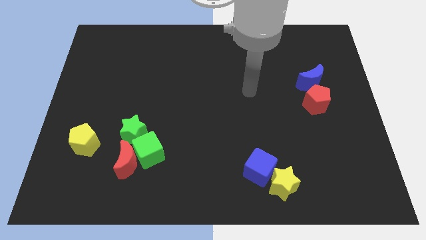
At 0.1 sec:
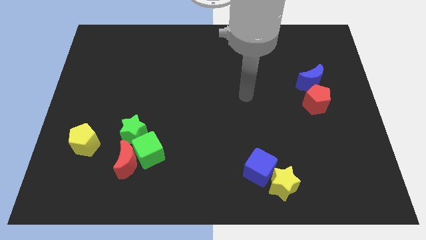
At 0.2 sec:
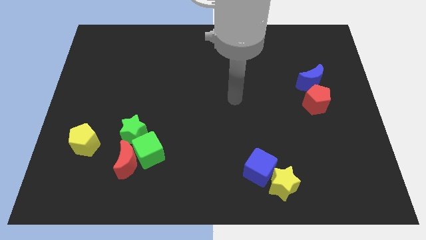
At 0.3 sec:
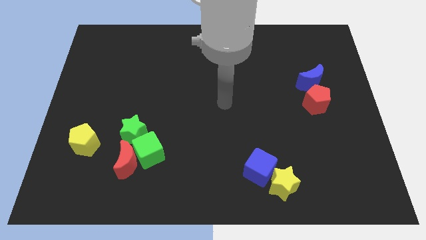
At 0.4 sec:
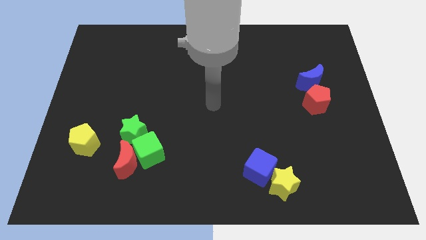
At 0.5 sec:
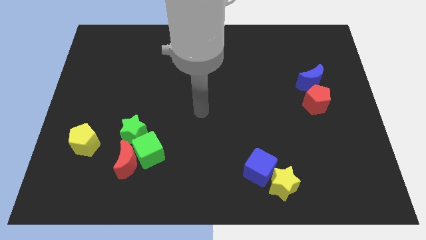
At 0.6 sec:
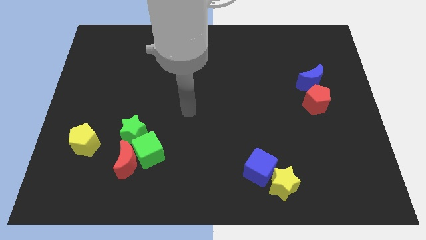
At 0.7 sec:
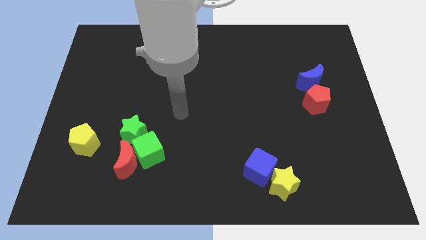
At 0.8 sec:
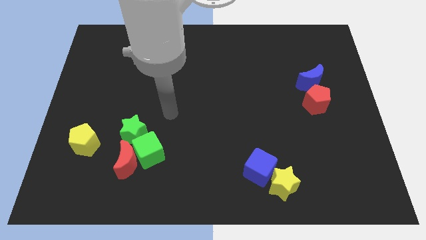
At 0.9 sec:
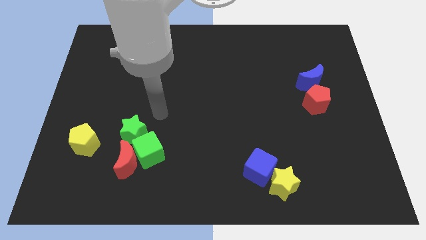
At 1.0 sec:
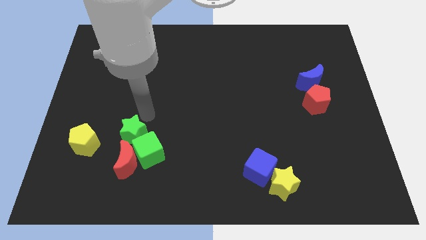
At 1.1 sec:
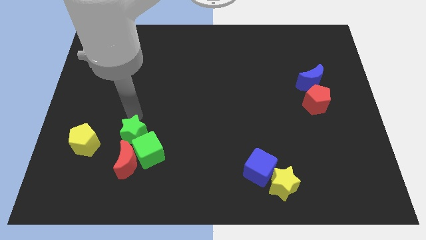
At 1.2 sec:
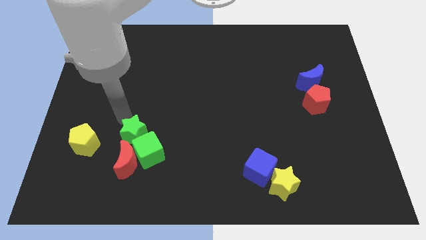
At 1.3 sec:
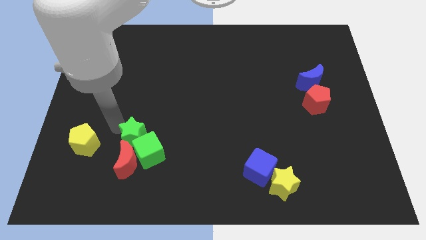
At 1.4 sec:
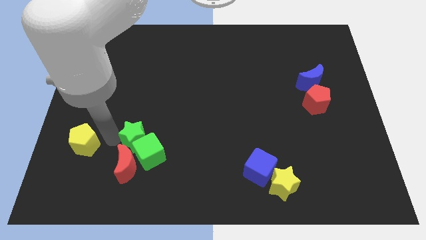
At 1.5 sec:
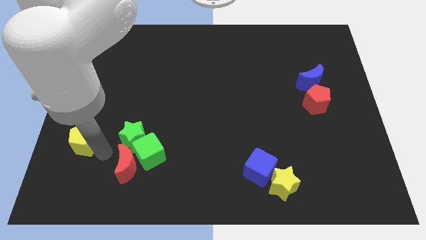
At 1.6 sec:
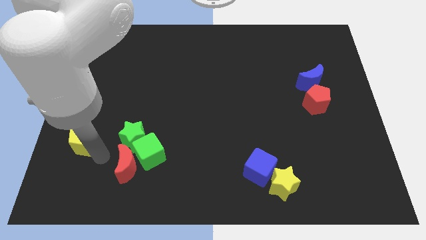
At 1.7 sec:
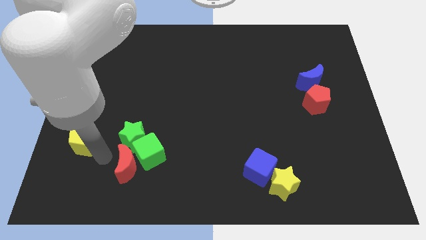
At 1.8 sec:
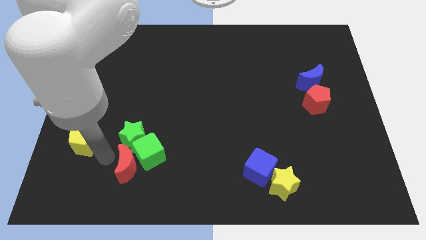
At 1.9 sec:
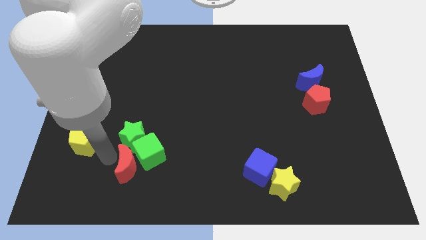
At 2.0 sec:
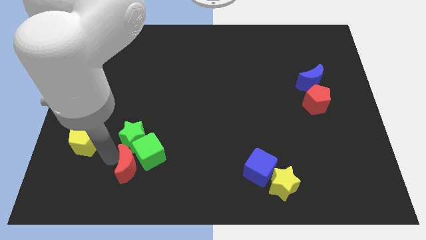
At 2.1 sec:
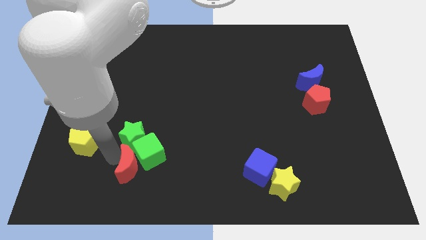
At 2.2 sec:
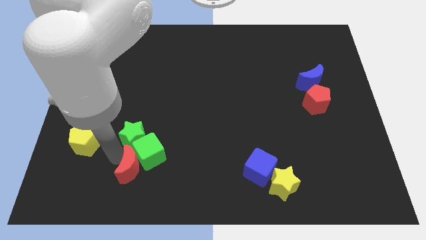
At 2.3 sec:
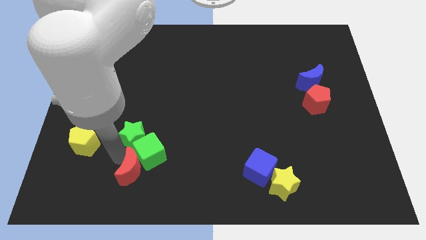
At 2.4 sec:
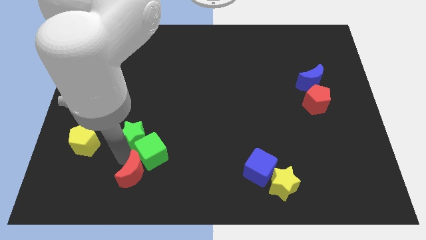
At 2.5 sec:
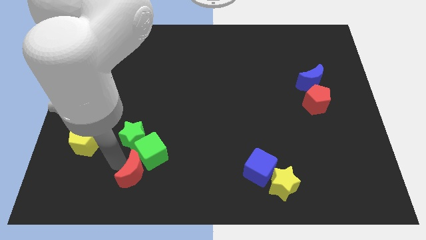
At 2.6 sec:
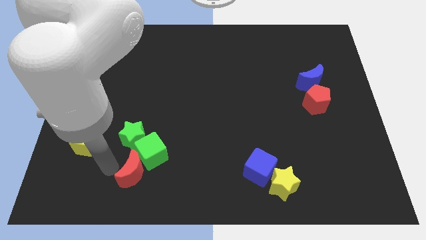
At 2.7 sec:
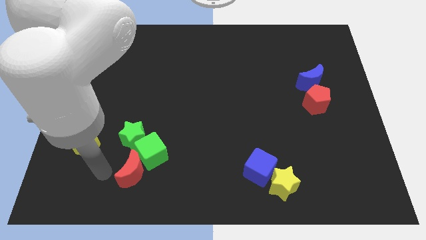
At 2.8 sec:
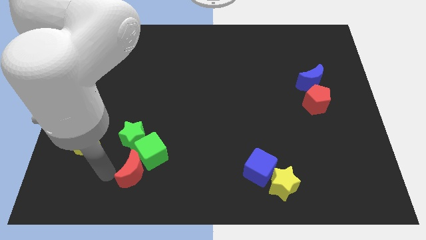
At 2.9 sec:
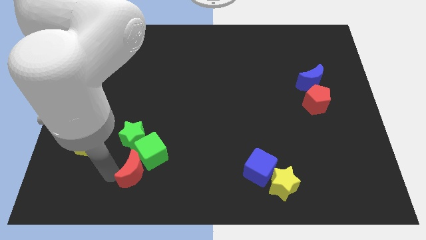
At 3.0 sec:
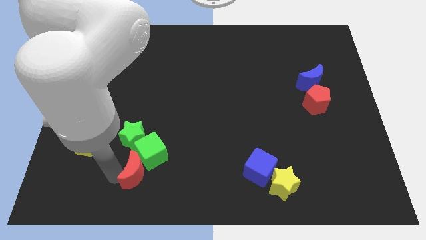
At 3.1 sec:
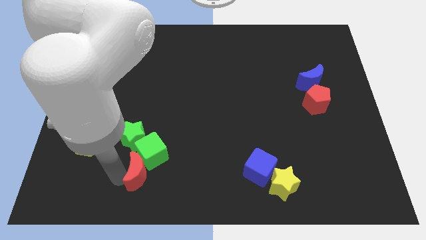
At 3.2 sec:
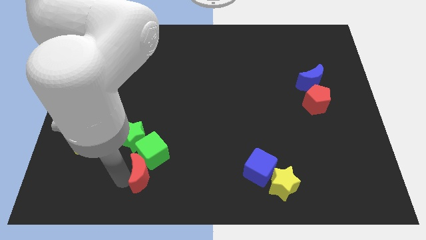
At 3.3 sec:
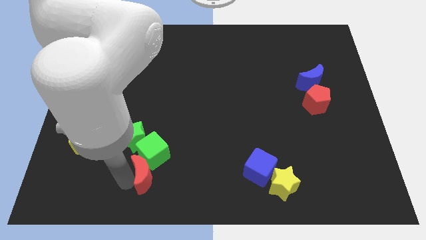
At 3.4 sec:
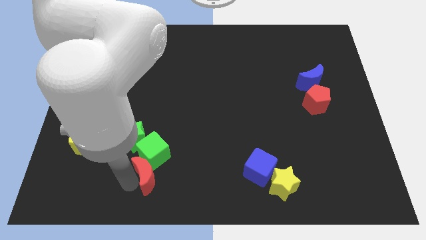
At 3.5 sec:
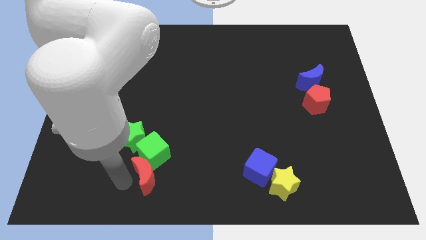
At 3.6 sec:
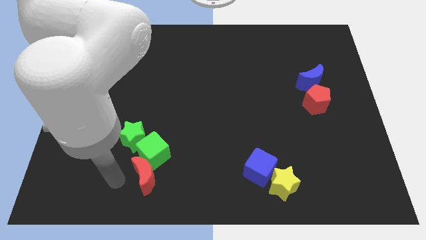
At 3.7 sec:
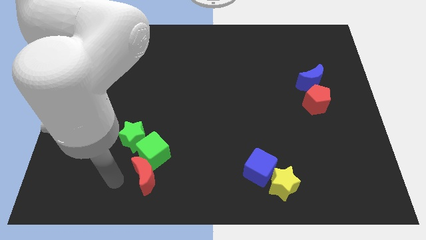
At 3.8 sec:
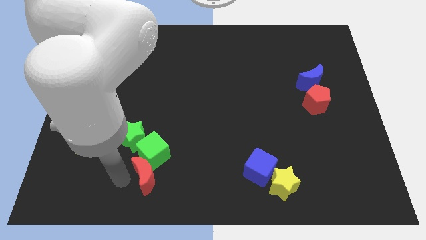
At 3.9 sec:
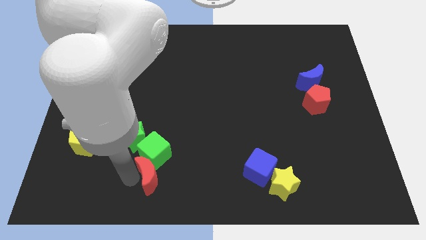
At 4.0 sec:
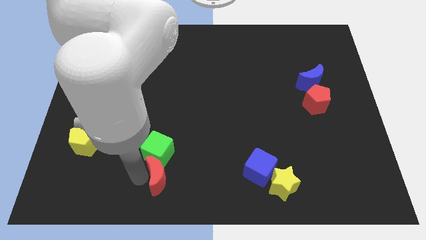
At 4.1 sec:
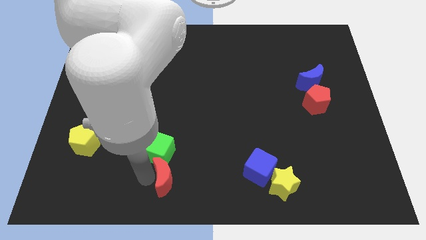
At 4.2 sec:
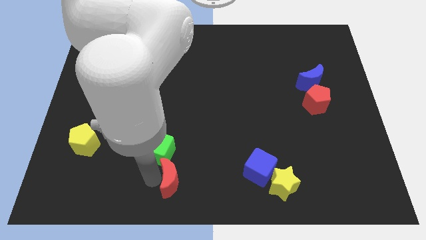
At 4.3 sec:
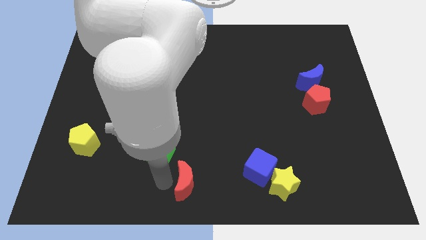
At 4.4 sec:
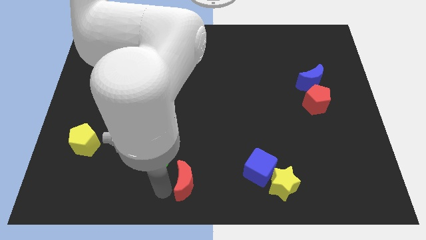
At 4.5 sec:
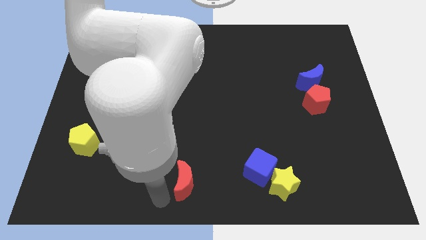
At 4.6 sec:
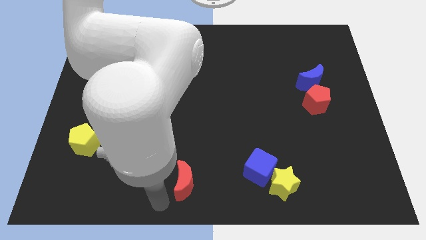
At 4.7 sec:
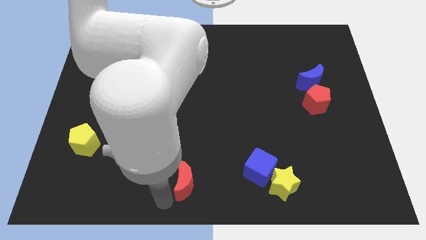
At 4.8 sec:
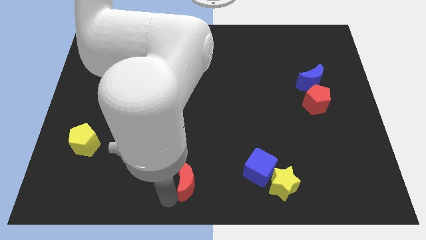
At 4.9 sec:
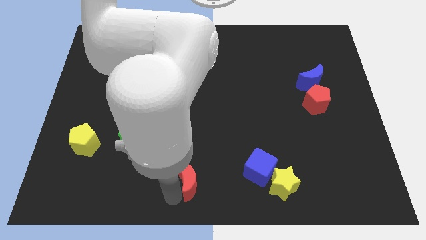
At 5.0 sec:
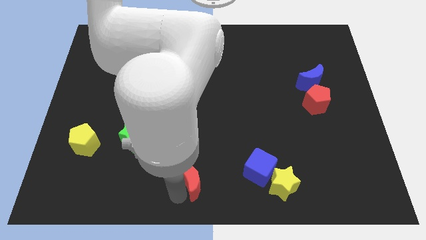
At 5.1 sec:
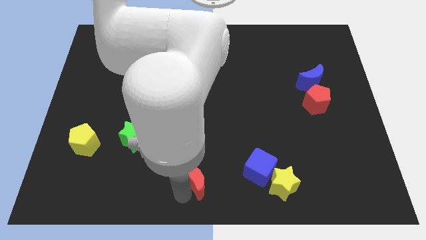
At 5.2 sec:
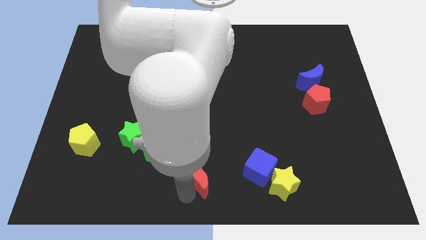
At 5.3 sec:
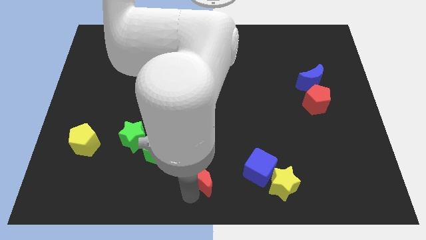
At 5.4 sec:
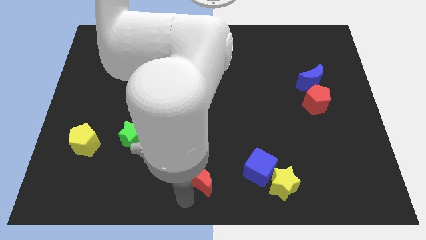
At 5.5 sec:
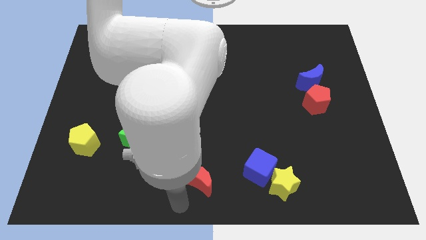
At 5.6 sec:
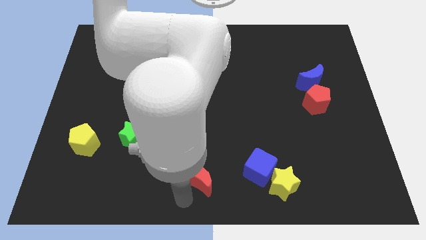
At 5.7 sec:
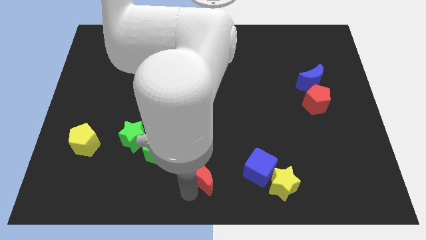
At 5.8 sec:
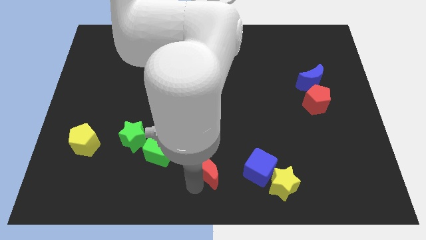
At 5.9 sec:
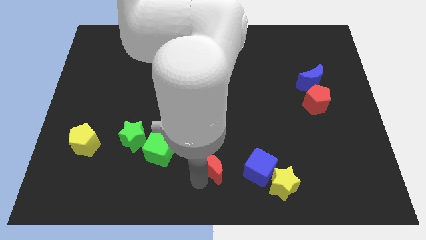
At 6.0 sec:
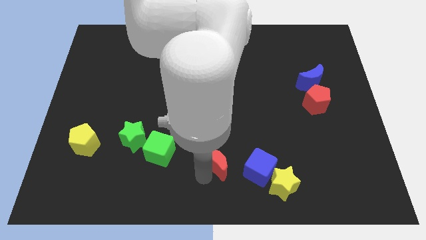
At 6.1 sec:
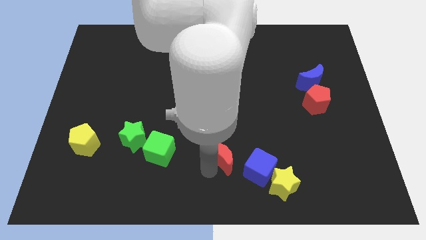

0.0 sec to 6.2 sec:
slide the red moon to the top left of the blue cube

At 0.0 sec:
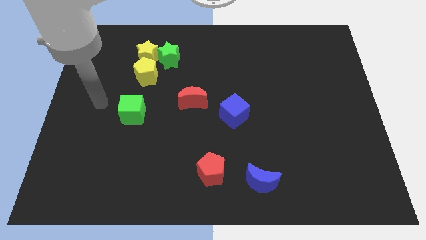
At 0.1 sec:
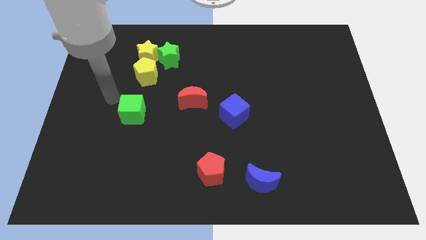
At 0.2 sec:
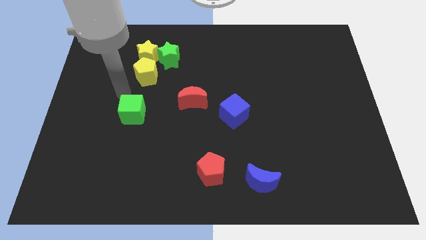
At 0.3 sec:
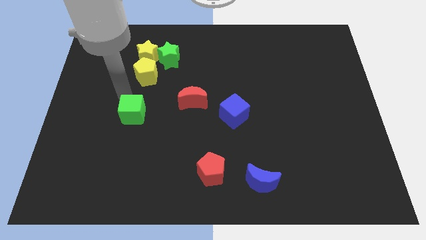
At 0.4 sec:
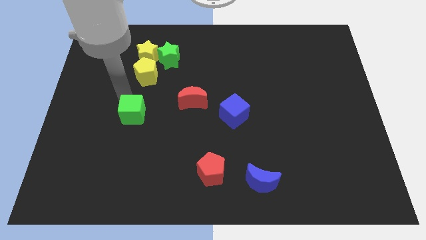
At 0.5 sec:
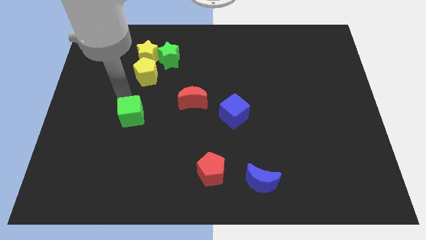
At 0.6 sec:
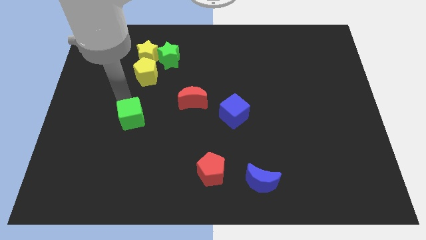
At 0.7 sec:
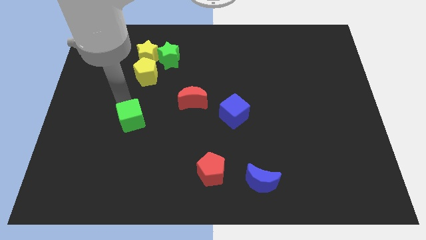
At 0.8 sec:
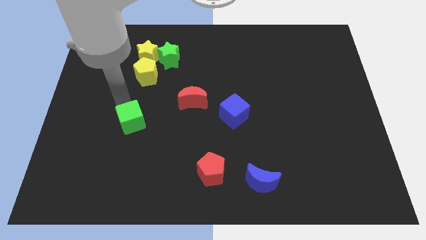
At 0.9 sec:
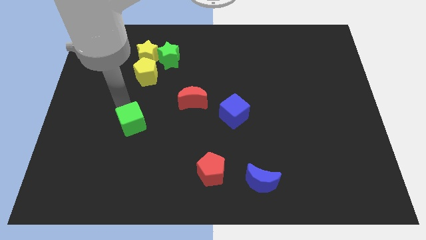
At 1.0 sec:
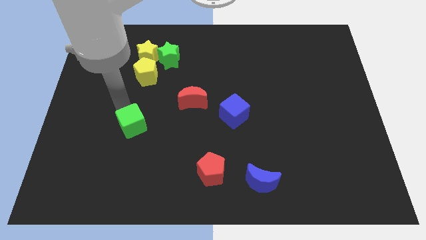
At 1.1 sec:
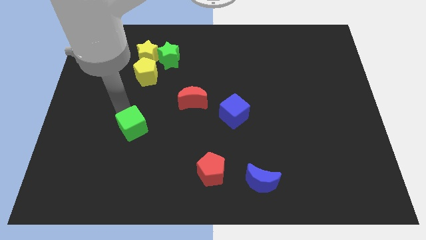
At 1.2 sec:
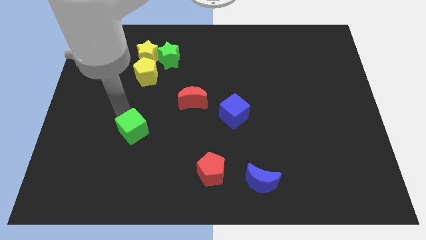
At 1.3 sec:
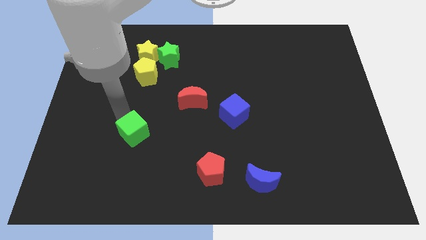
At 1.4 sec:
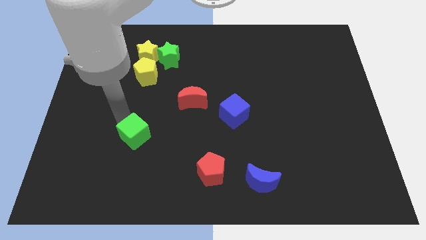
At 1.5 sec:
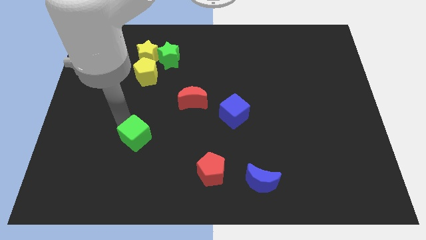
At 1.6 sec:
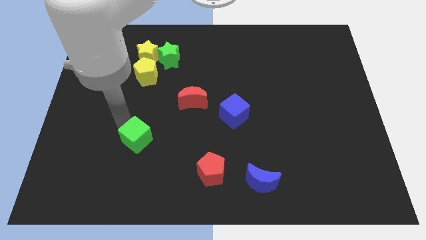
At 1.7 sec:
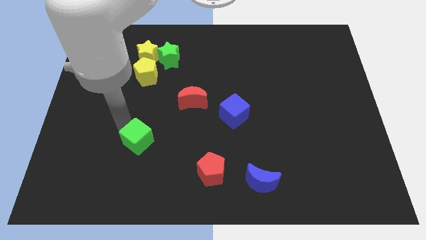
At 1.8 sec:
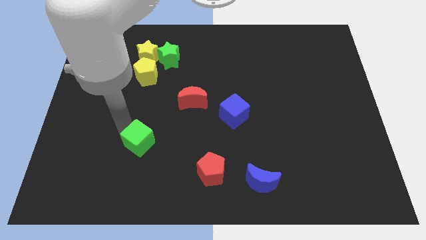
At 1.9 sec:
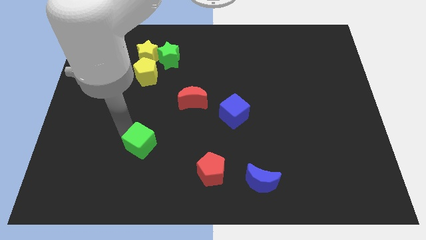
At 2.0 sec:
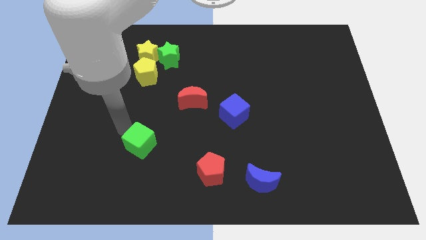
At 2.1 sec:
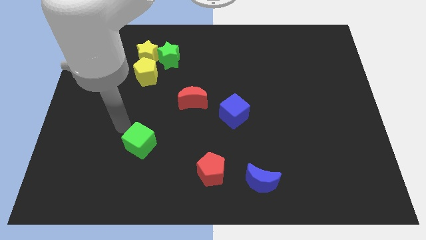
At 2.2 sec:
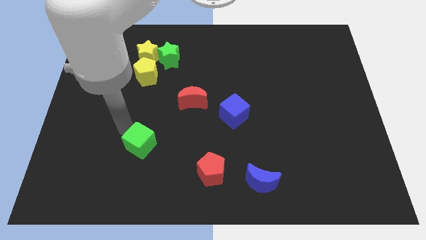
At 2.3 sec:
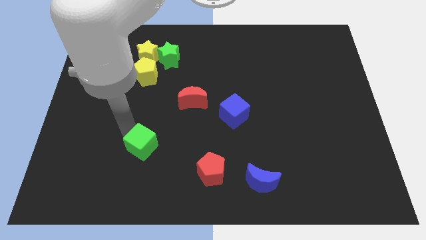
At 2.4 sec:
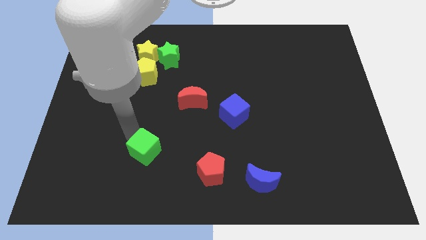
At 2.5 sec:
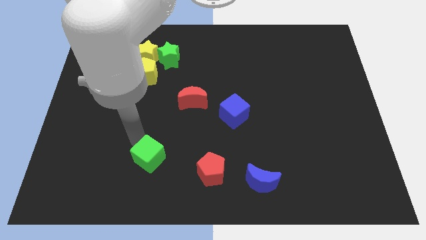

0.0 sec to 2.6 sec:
slide the green cube to the left side of the red pentagon
